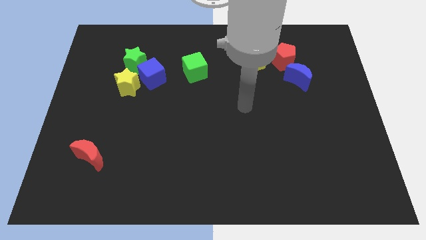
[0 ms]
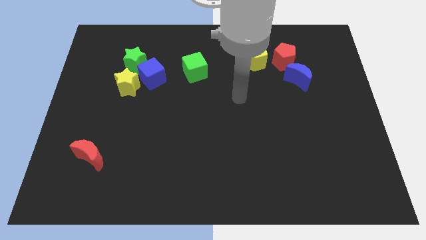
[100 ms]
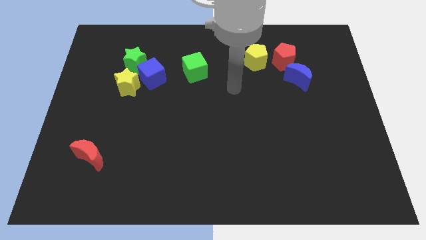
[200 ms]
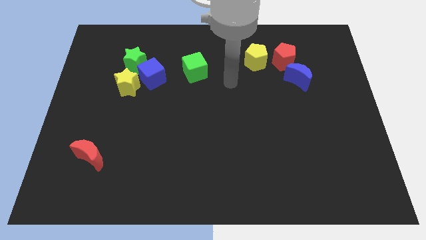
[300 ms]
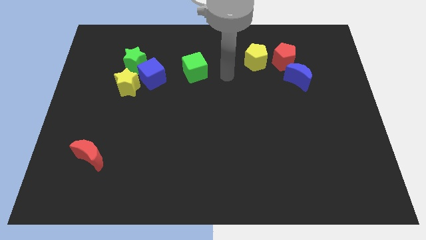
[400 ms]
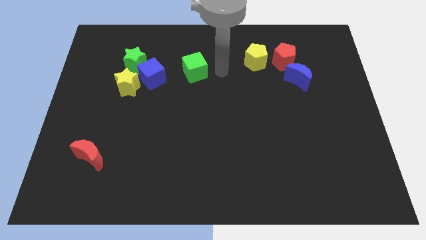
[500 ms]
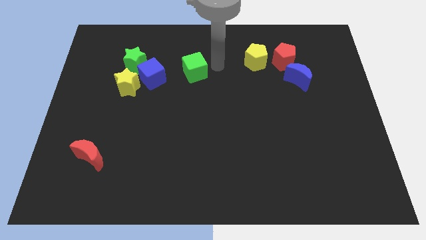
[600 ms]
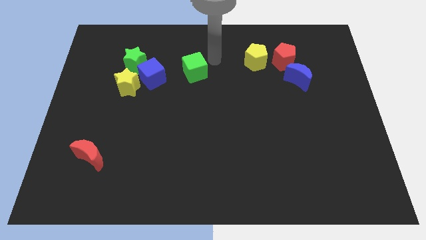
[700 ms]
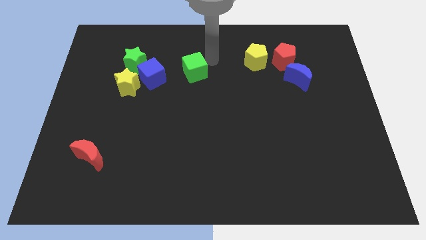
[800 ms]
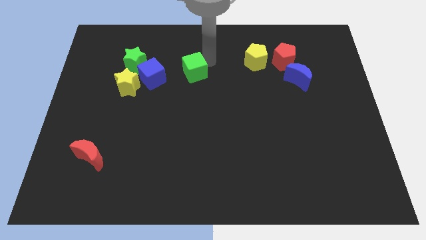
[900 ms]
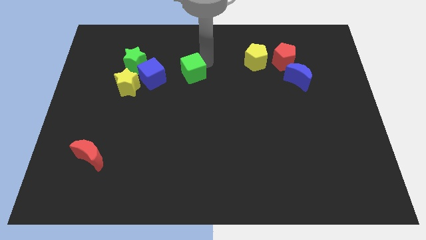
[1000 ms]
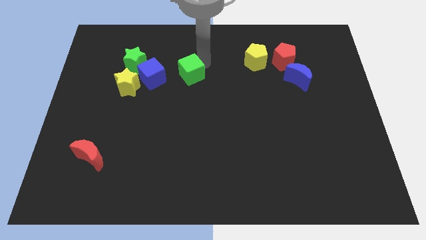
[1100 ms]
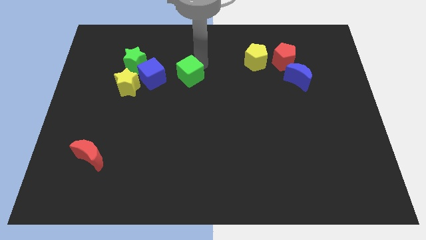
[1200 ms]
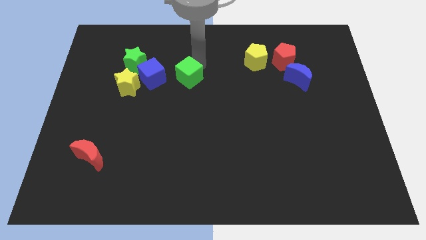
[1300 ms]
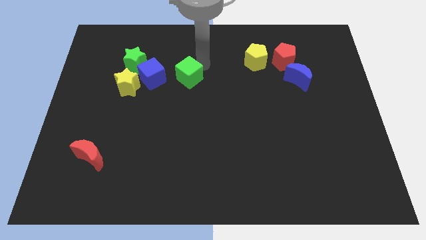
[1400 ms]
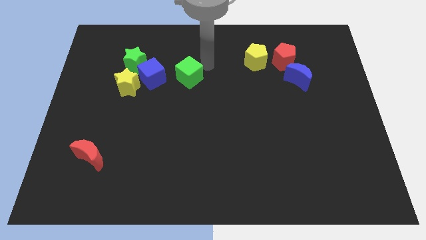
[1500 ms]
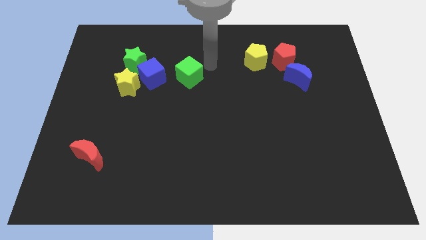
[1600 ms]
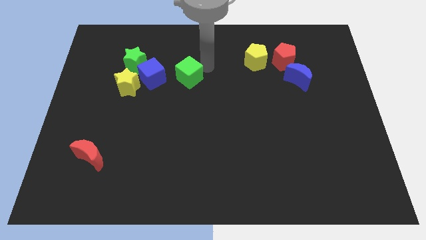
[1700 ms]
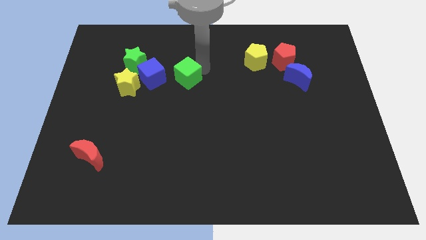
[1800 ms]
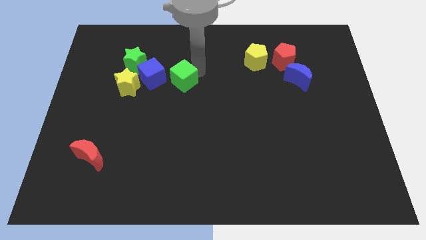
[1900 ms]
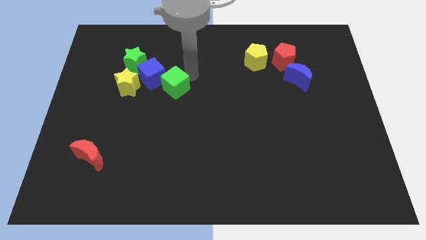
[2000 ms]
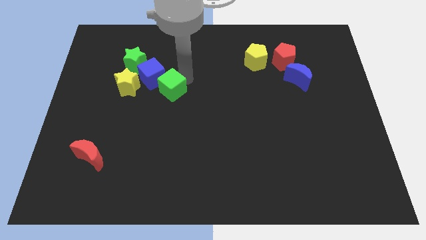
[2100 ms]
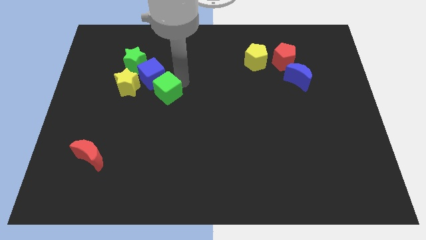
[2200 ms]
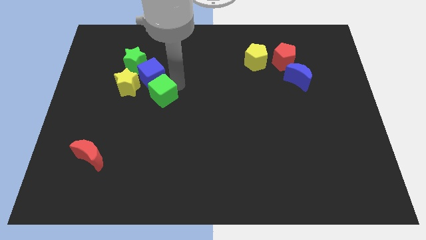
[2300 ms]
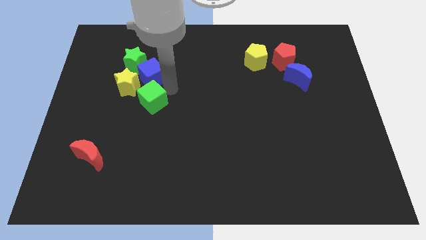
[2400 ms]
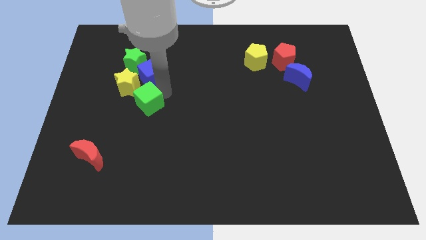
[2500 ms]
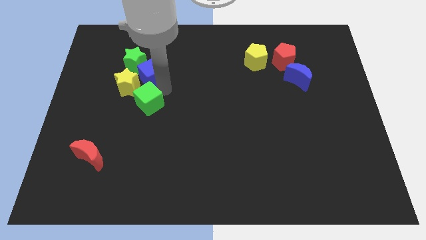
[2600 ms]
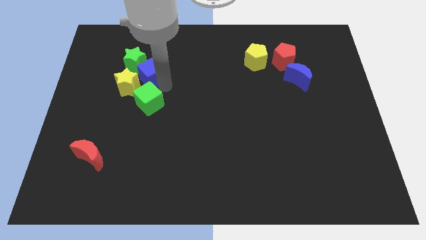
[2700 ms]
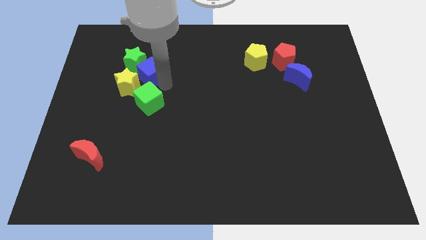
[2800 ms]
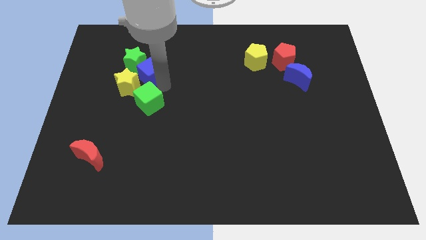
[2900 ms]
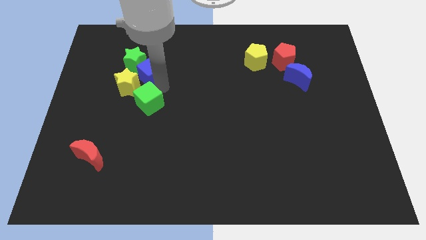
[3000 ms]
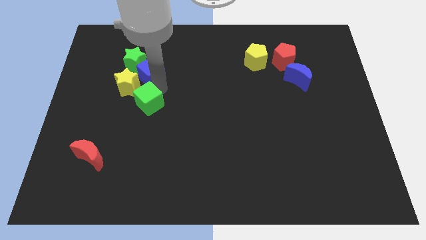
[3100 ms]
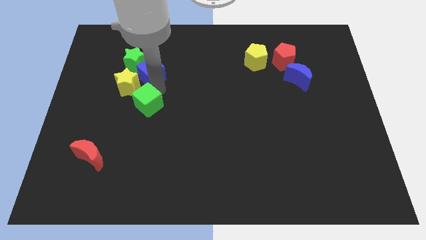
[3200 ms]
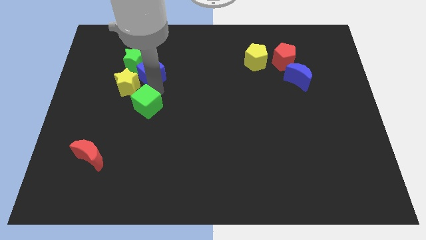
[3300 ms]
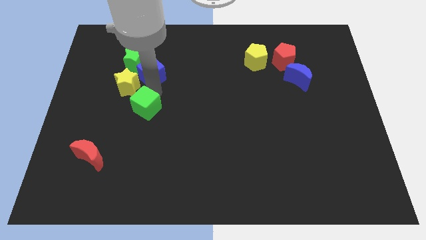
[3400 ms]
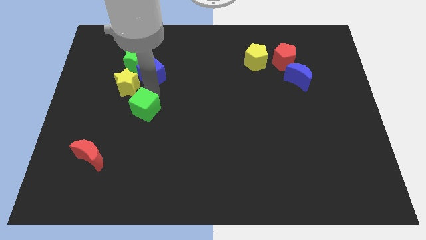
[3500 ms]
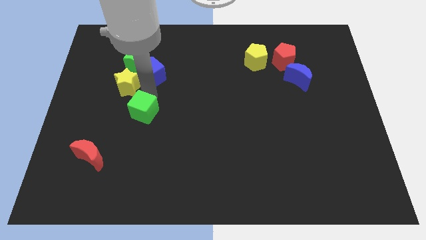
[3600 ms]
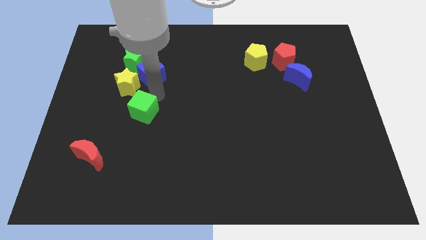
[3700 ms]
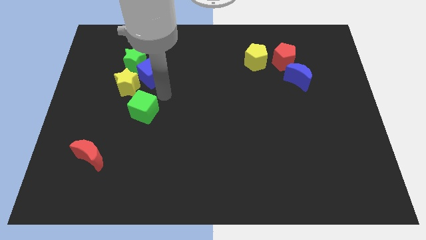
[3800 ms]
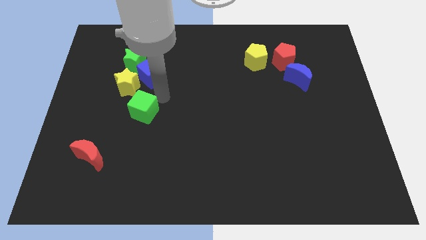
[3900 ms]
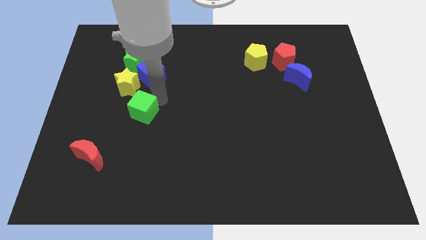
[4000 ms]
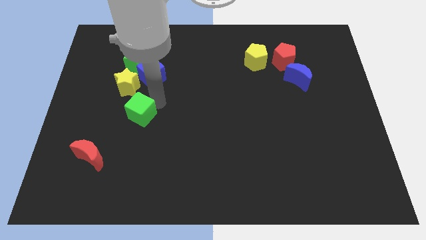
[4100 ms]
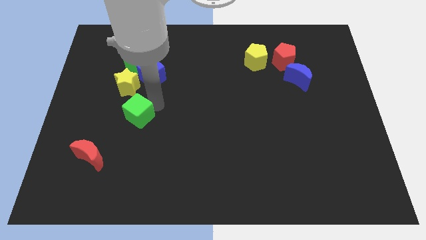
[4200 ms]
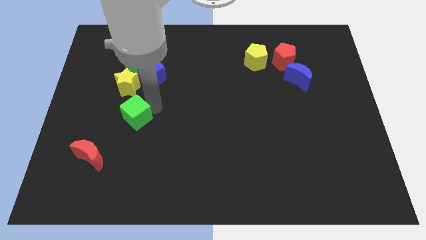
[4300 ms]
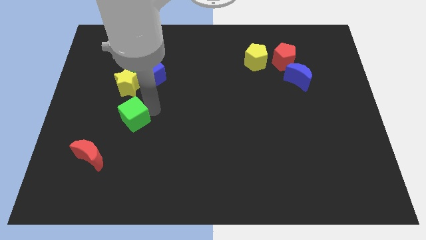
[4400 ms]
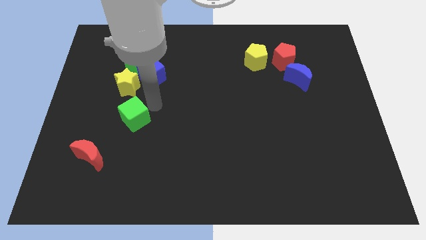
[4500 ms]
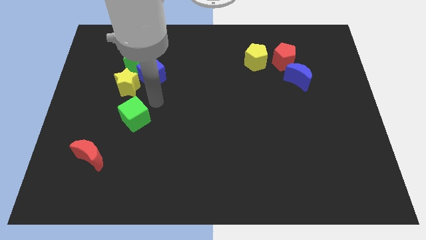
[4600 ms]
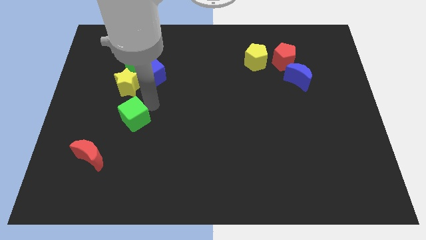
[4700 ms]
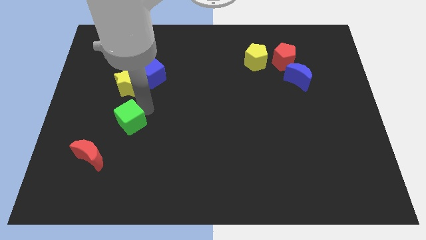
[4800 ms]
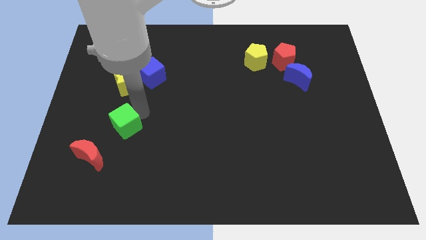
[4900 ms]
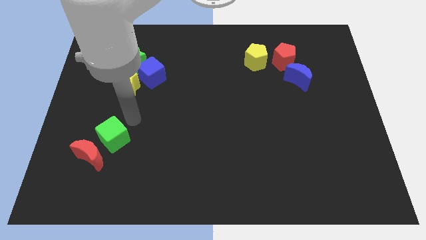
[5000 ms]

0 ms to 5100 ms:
slide the green cube towards the red moon

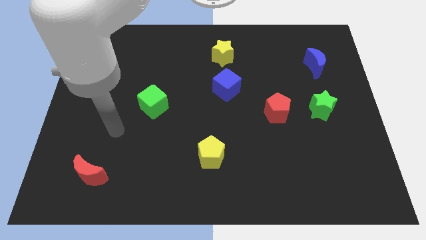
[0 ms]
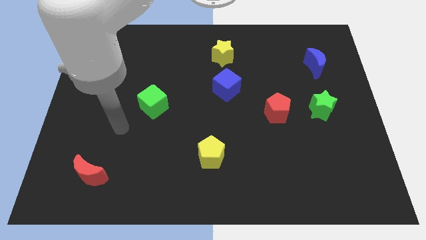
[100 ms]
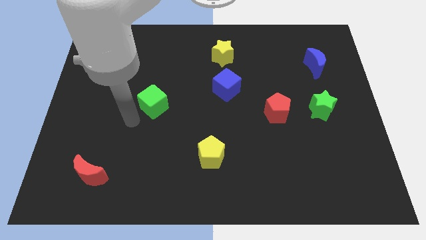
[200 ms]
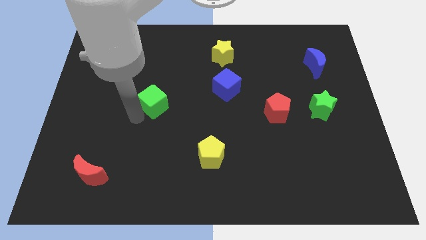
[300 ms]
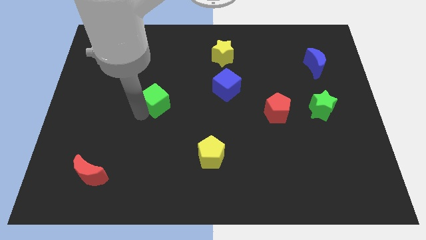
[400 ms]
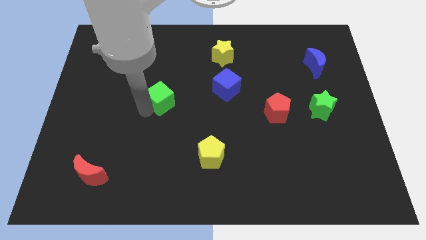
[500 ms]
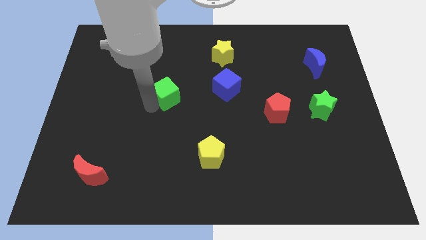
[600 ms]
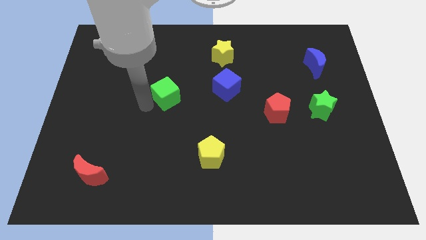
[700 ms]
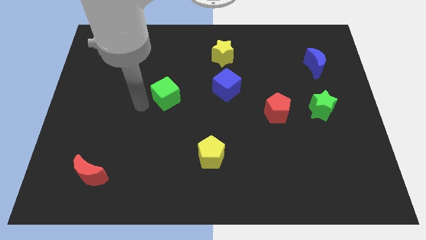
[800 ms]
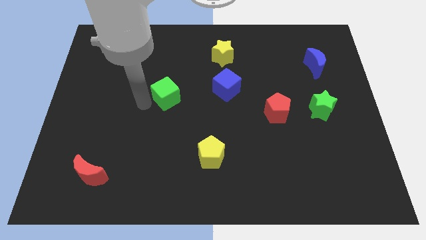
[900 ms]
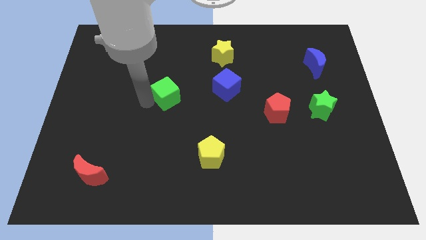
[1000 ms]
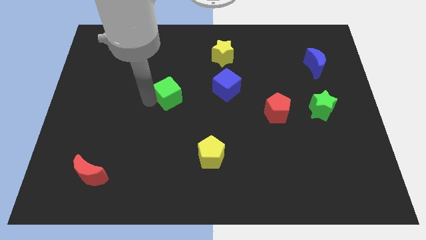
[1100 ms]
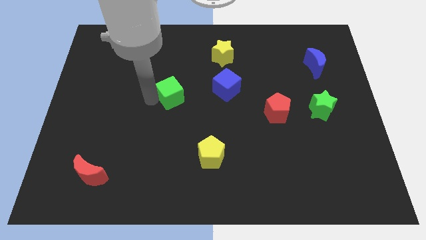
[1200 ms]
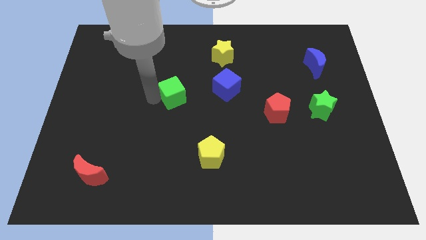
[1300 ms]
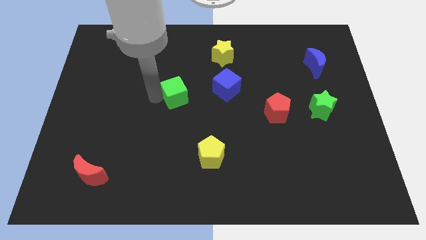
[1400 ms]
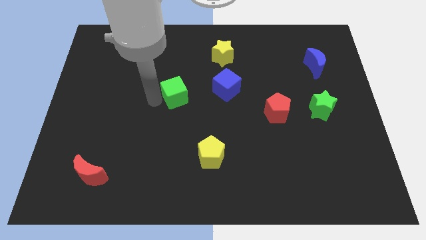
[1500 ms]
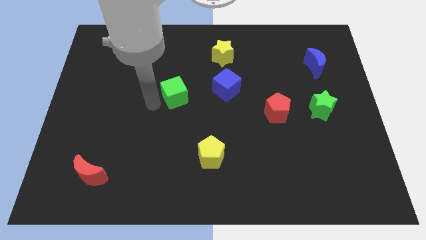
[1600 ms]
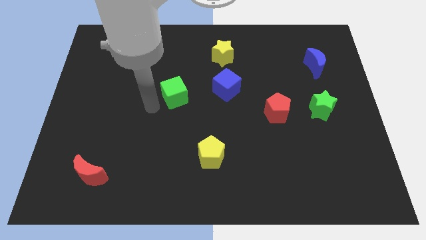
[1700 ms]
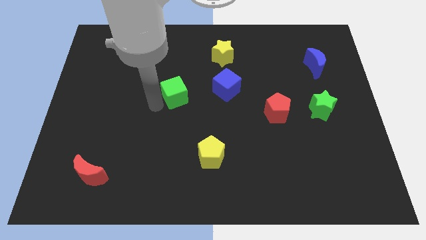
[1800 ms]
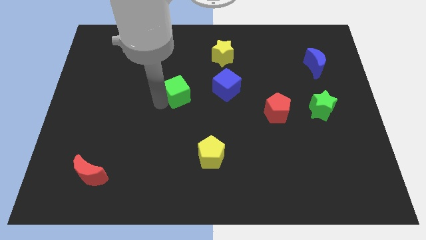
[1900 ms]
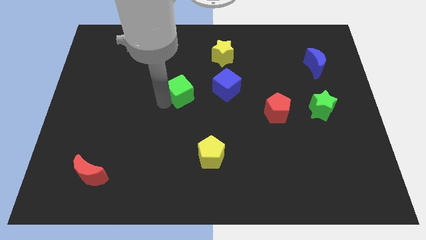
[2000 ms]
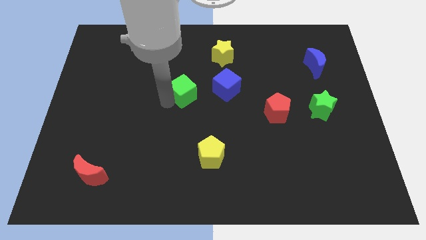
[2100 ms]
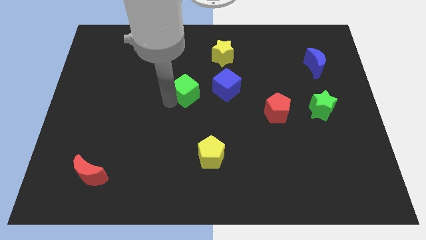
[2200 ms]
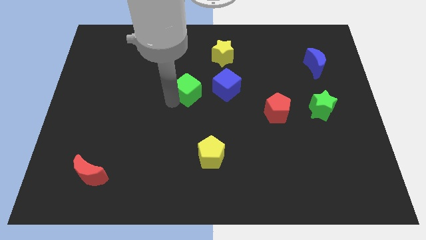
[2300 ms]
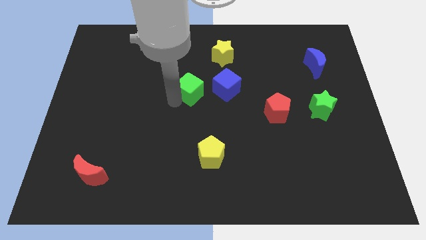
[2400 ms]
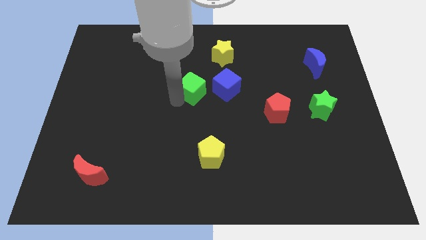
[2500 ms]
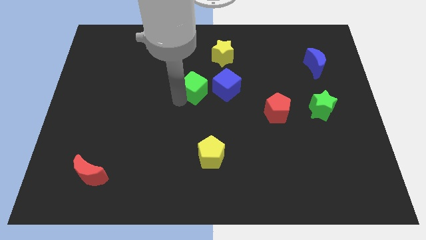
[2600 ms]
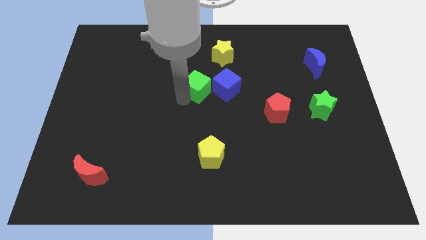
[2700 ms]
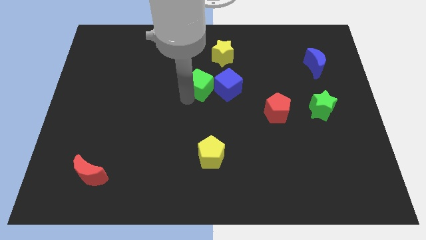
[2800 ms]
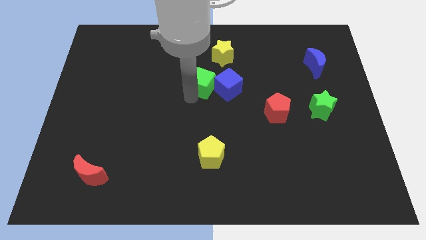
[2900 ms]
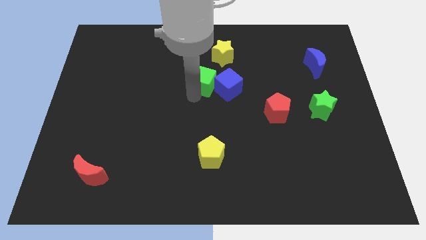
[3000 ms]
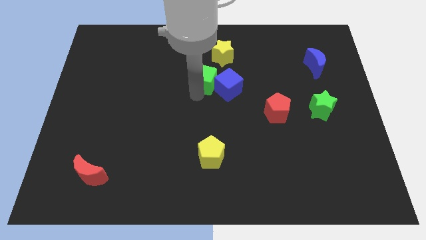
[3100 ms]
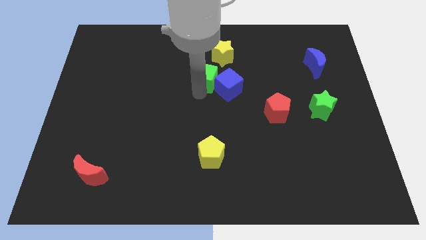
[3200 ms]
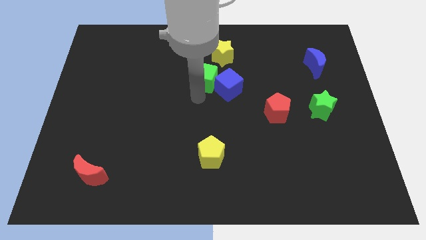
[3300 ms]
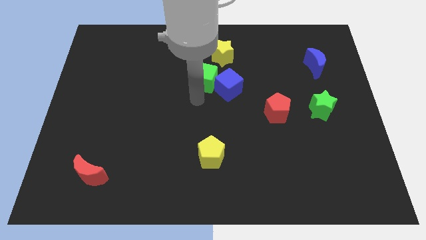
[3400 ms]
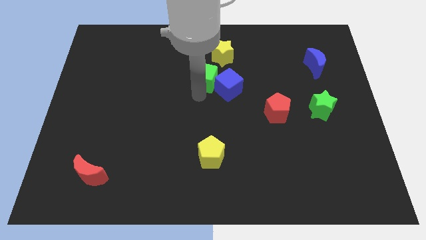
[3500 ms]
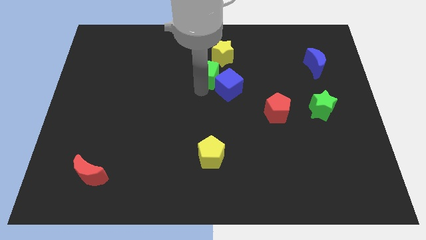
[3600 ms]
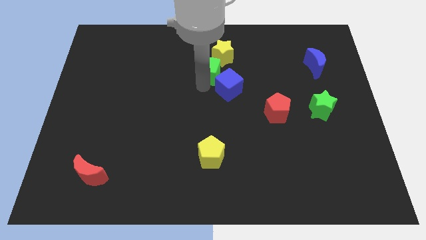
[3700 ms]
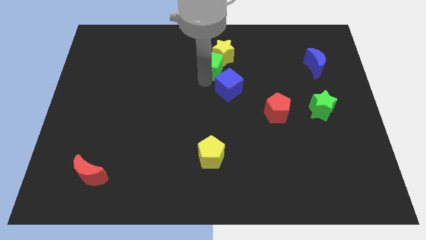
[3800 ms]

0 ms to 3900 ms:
move the green cube towards the yellow star
